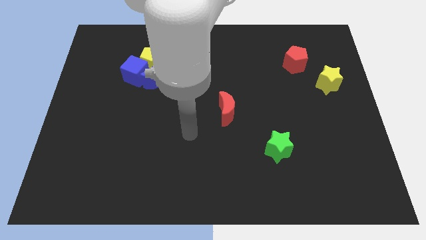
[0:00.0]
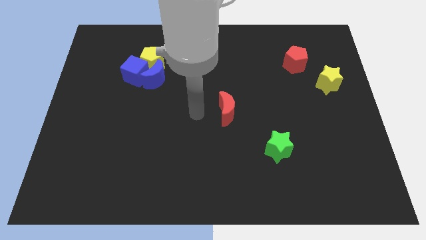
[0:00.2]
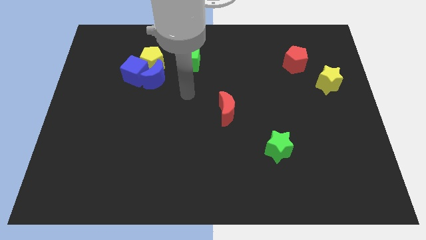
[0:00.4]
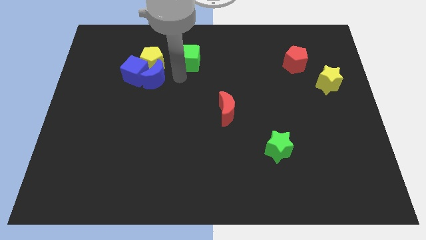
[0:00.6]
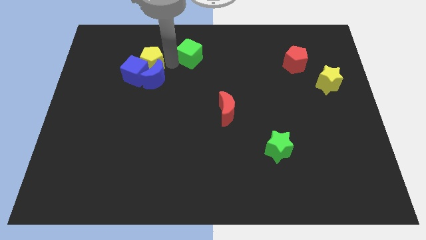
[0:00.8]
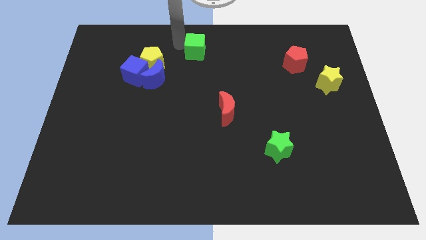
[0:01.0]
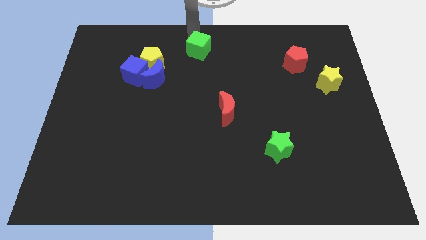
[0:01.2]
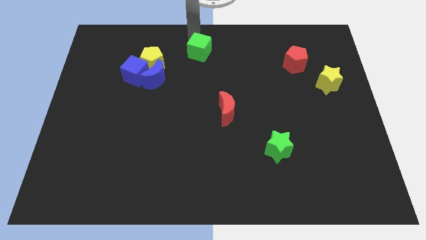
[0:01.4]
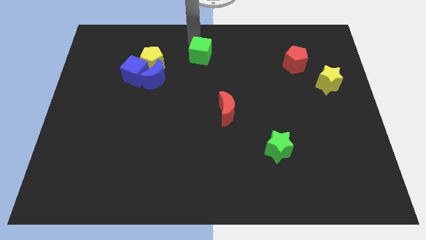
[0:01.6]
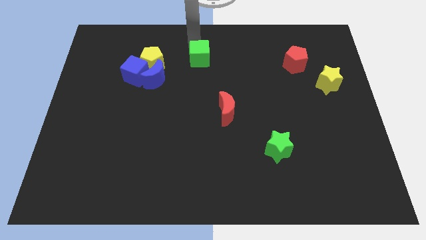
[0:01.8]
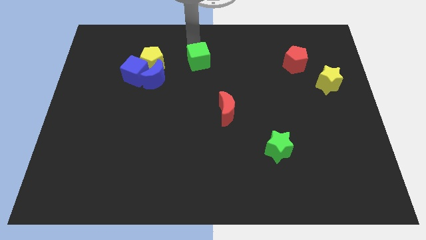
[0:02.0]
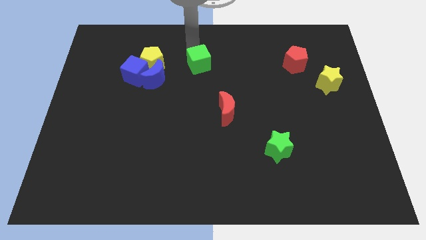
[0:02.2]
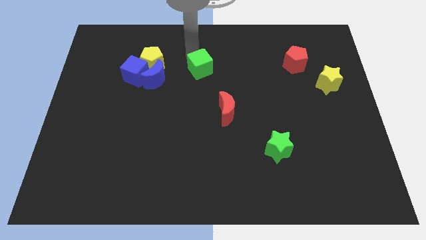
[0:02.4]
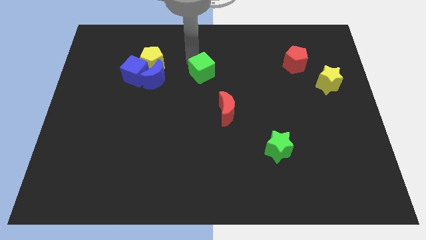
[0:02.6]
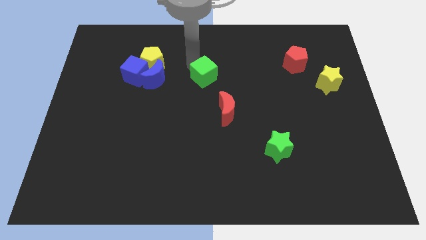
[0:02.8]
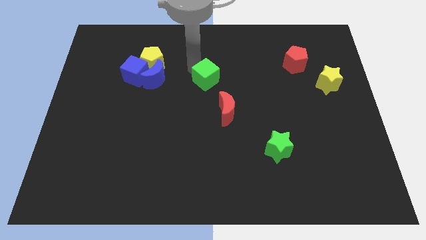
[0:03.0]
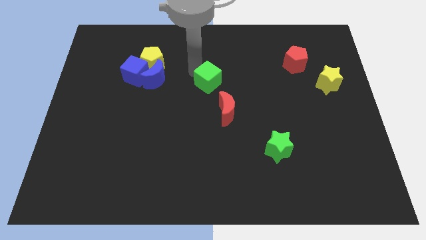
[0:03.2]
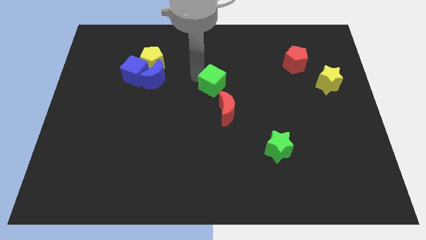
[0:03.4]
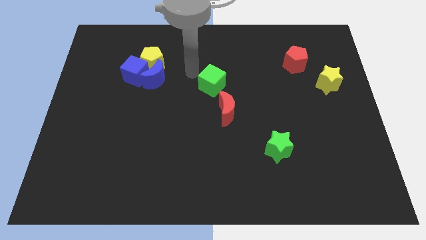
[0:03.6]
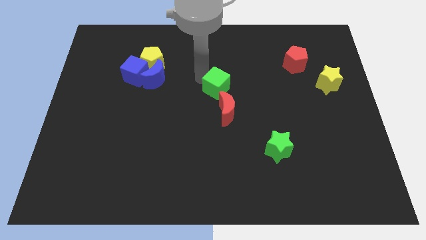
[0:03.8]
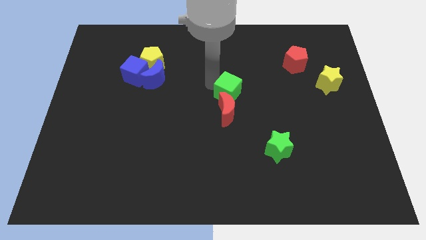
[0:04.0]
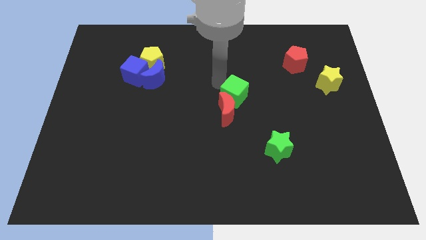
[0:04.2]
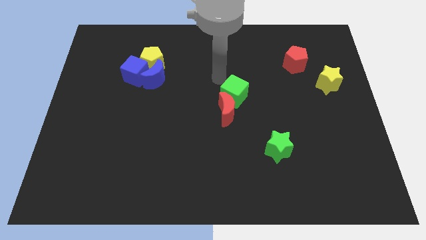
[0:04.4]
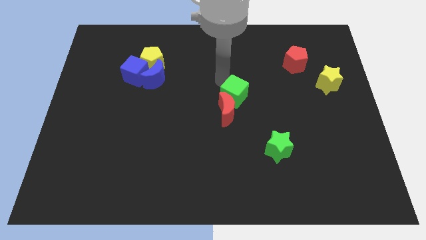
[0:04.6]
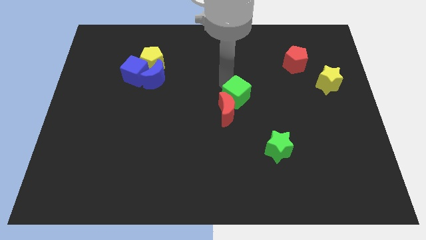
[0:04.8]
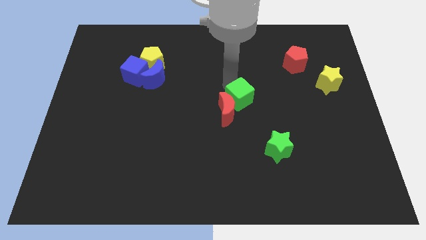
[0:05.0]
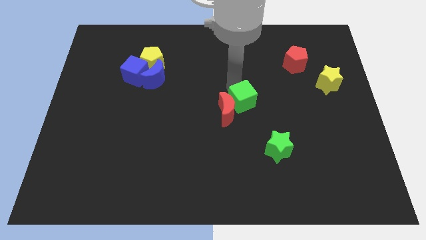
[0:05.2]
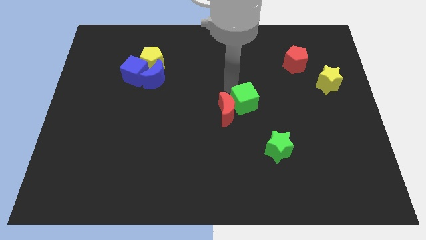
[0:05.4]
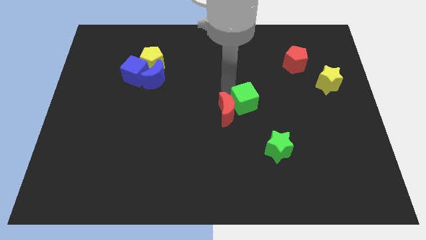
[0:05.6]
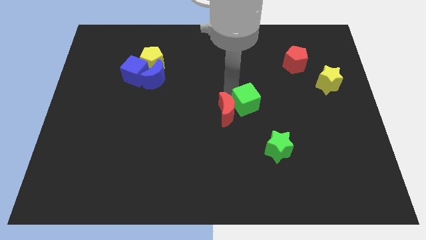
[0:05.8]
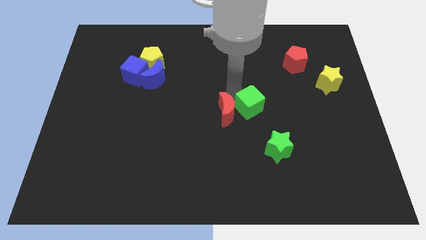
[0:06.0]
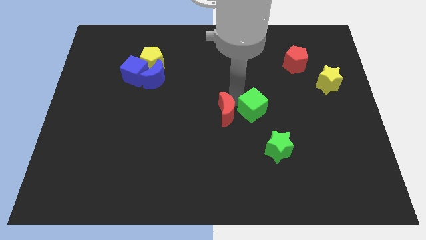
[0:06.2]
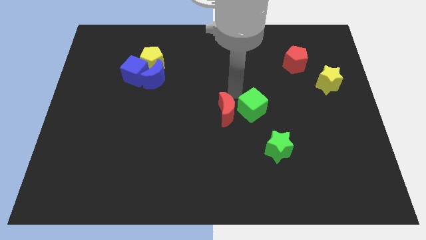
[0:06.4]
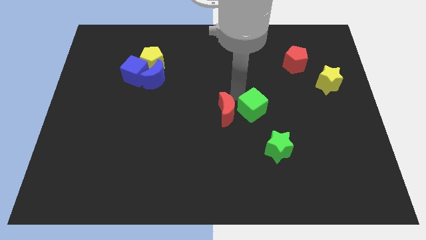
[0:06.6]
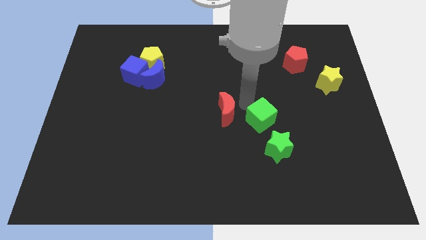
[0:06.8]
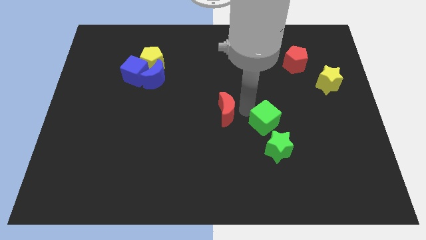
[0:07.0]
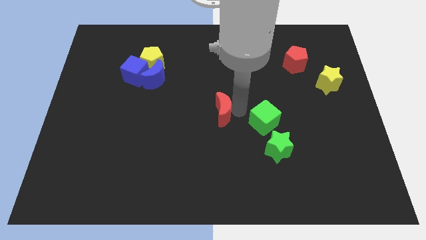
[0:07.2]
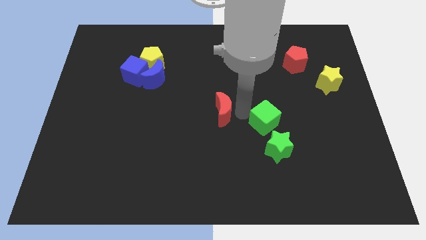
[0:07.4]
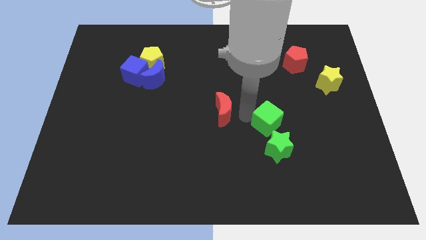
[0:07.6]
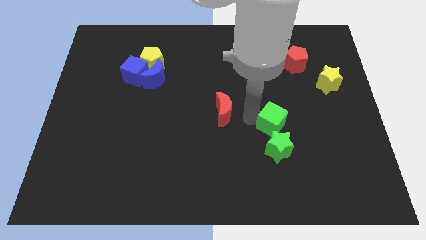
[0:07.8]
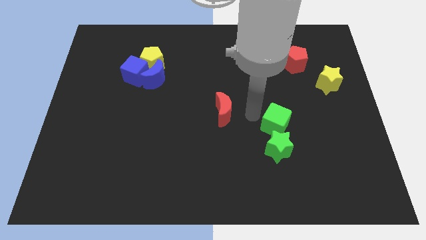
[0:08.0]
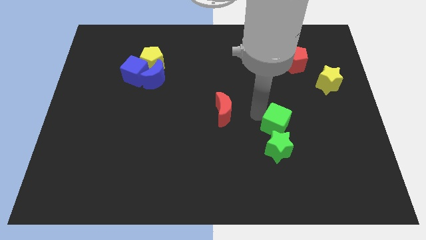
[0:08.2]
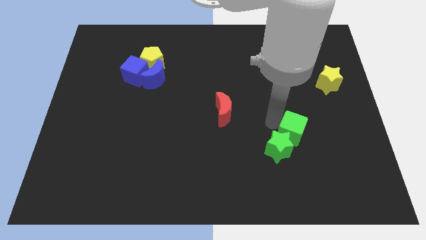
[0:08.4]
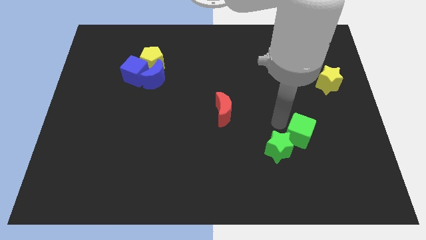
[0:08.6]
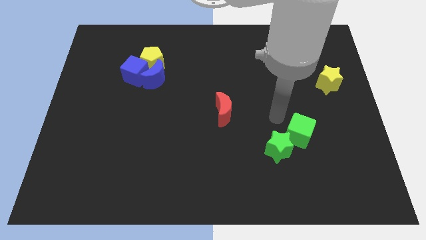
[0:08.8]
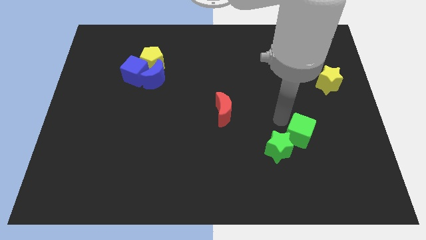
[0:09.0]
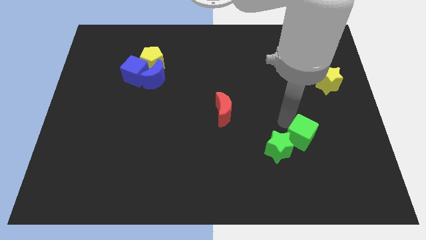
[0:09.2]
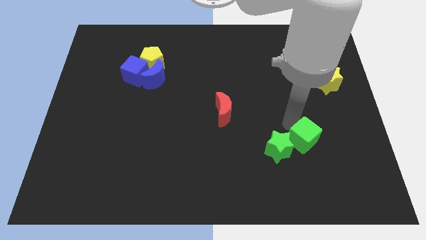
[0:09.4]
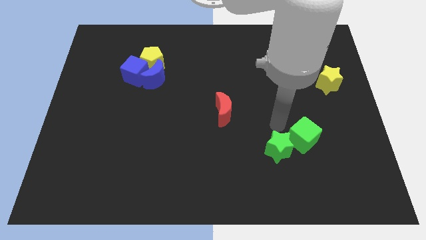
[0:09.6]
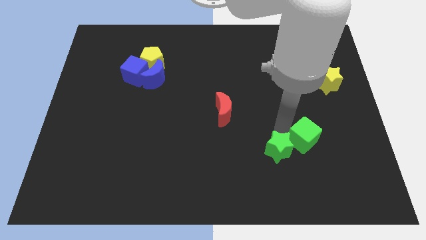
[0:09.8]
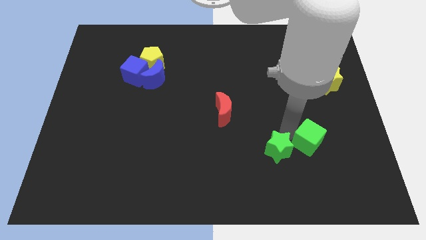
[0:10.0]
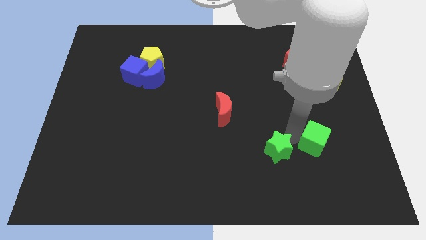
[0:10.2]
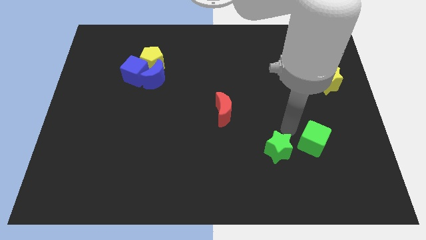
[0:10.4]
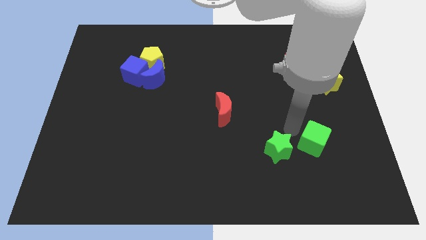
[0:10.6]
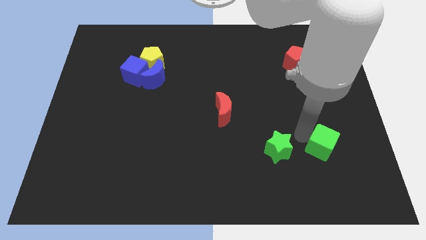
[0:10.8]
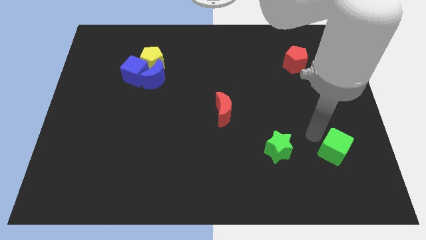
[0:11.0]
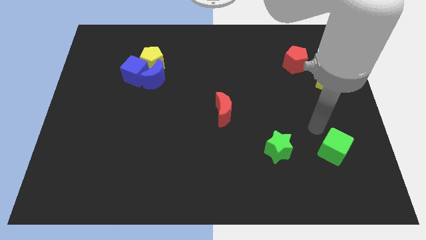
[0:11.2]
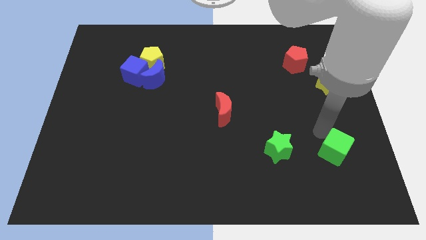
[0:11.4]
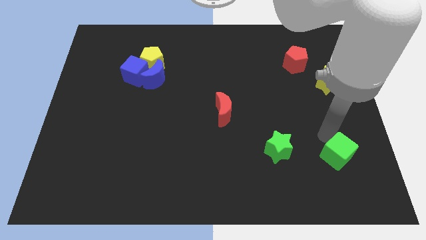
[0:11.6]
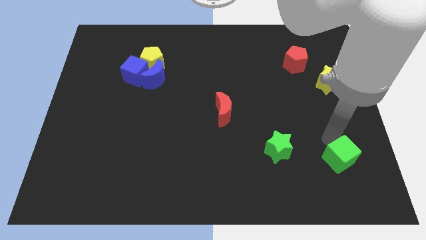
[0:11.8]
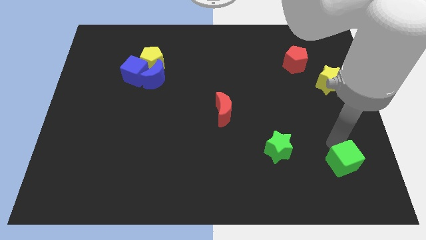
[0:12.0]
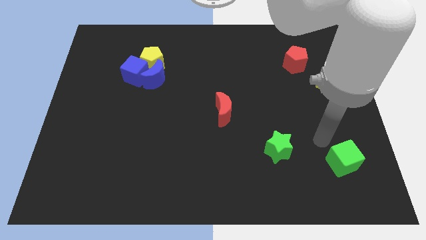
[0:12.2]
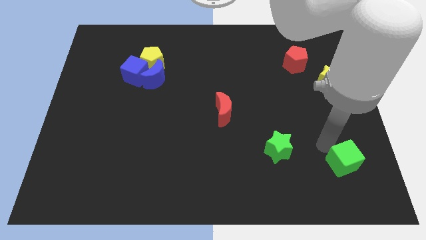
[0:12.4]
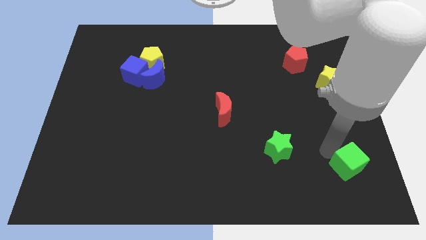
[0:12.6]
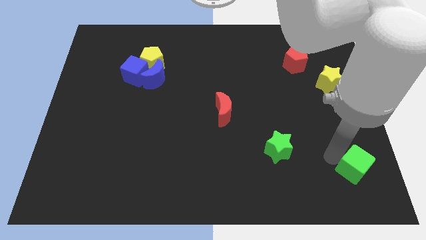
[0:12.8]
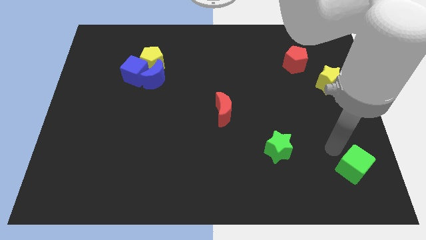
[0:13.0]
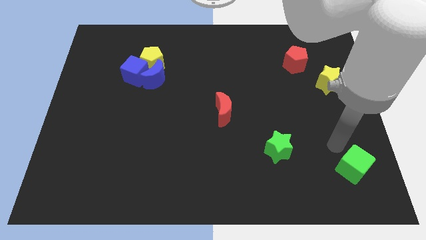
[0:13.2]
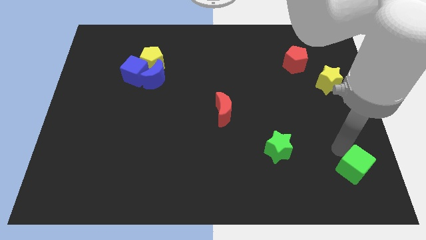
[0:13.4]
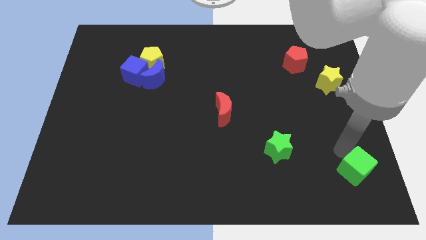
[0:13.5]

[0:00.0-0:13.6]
put the green cube to the bottom right of the board
